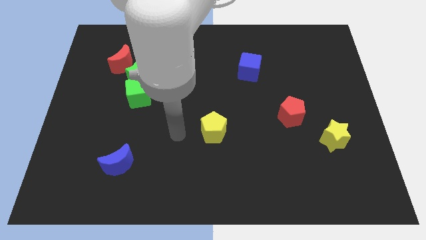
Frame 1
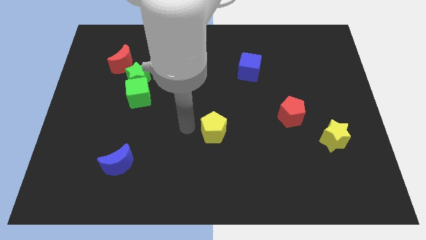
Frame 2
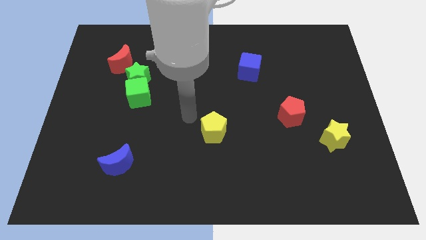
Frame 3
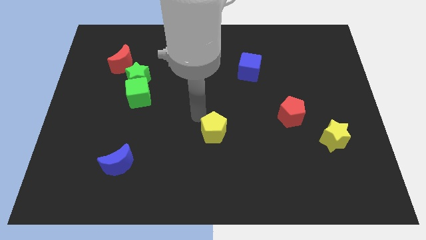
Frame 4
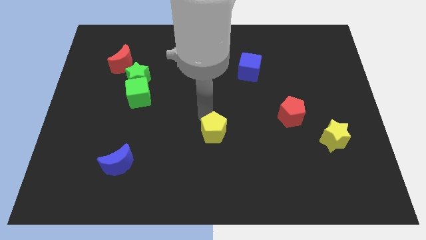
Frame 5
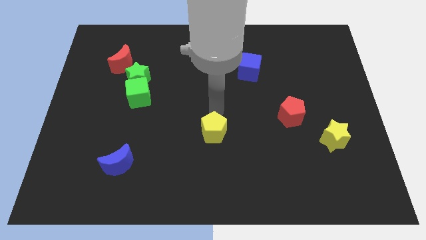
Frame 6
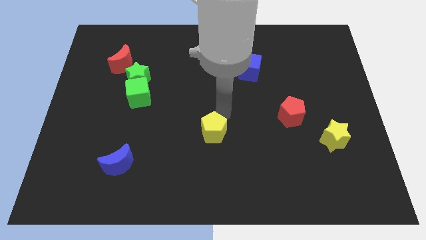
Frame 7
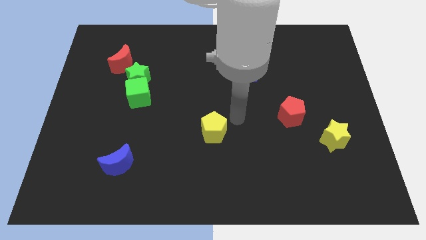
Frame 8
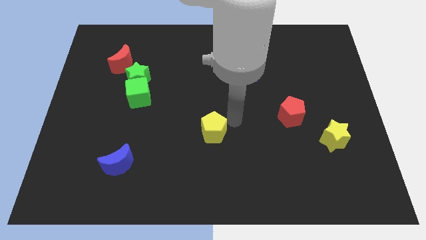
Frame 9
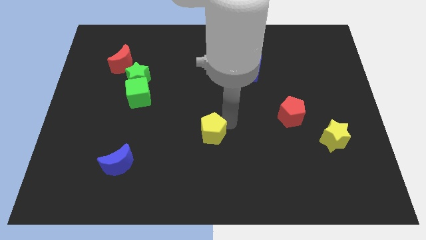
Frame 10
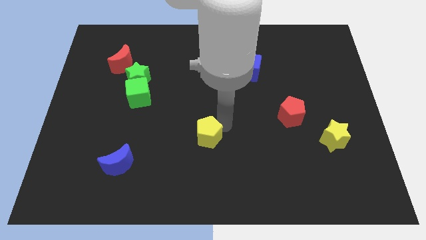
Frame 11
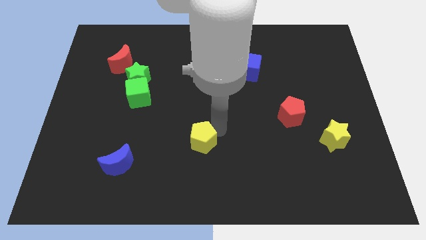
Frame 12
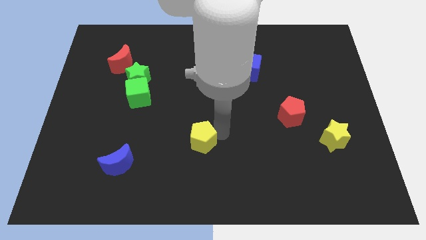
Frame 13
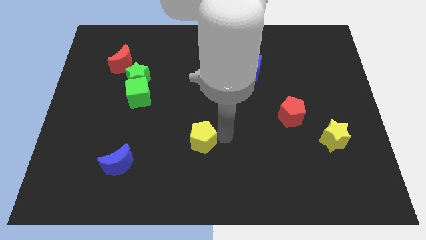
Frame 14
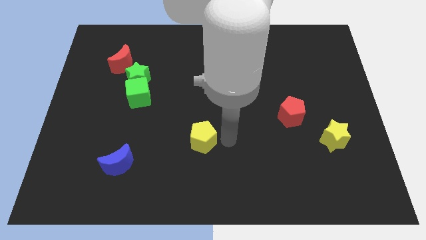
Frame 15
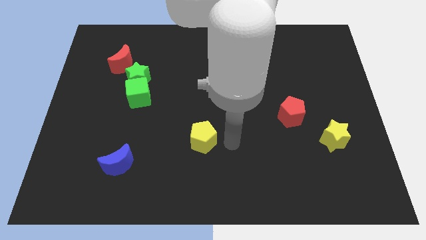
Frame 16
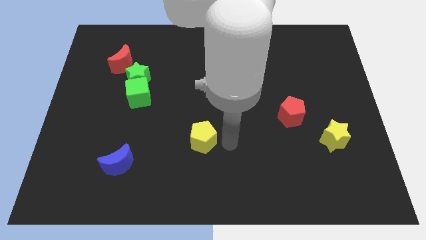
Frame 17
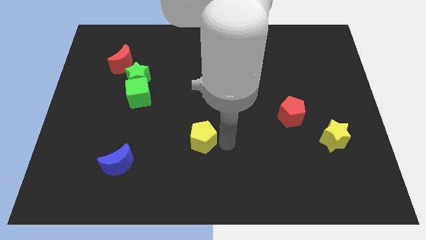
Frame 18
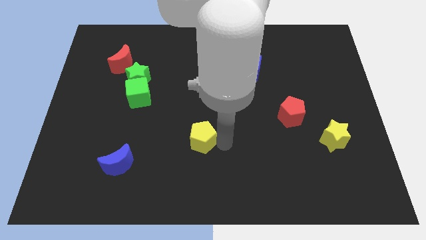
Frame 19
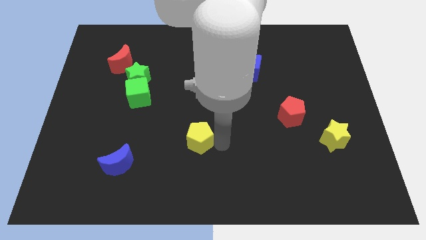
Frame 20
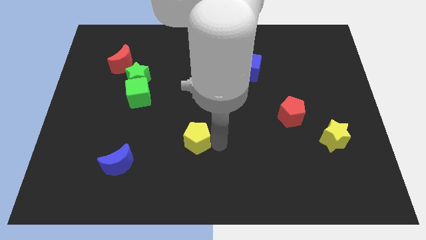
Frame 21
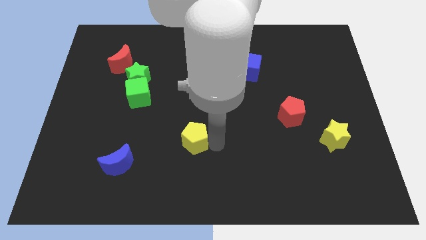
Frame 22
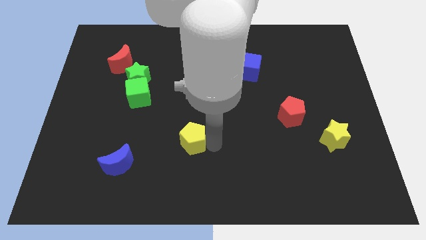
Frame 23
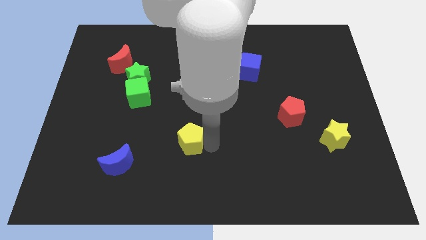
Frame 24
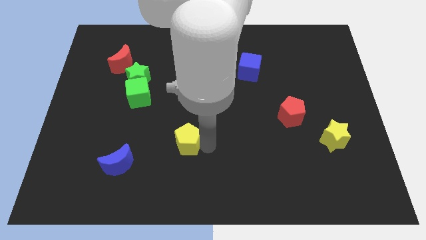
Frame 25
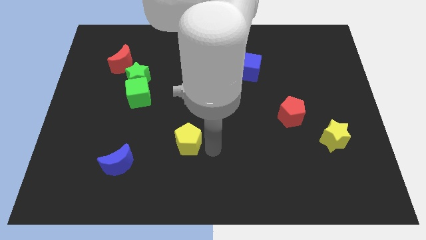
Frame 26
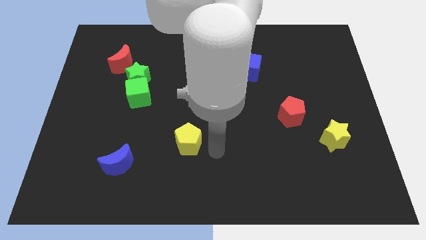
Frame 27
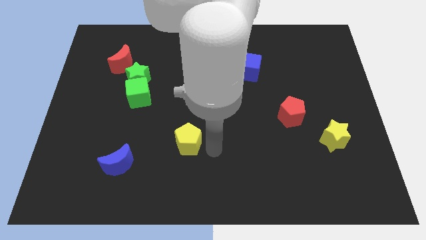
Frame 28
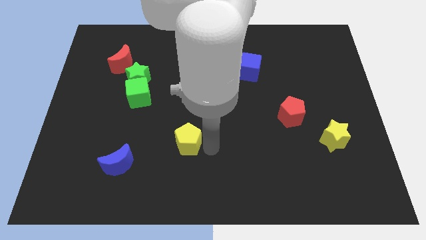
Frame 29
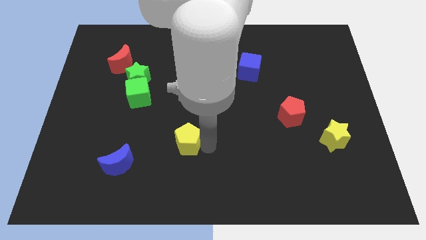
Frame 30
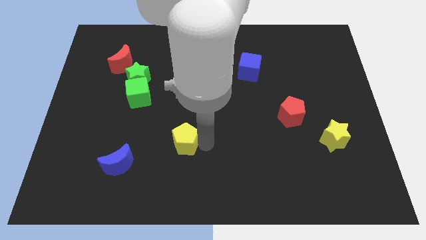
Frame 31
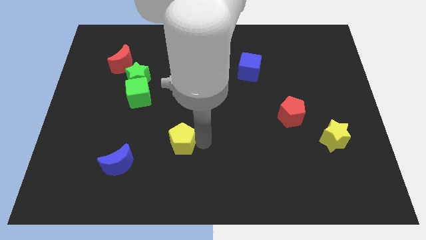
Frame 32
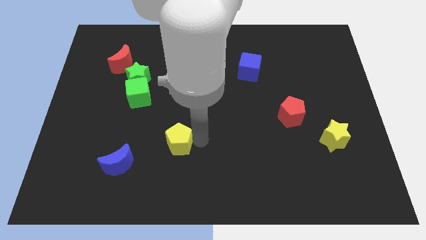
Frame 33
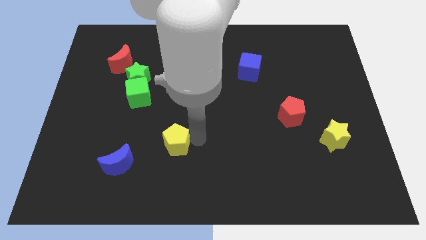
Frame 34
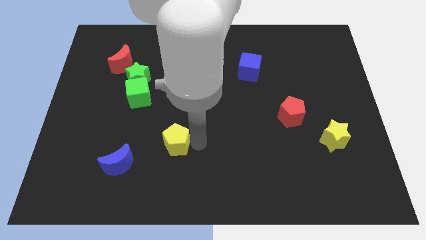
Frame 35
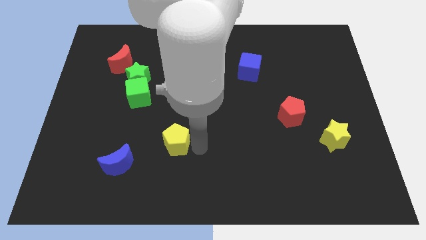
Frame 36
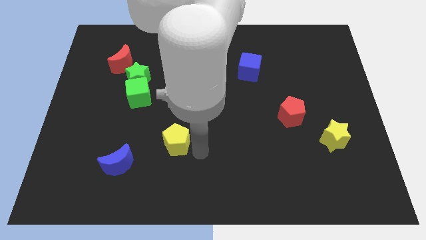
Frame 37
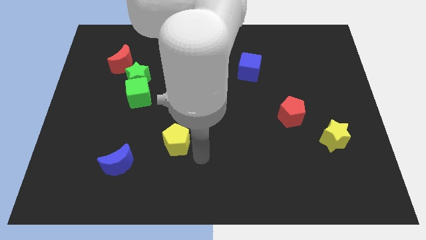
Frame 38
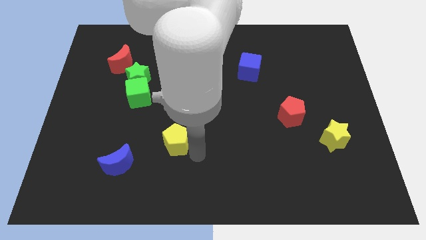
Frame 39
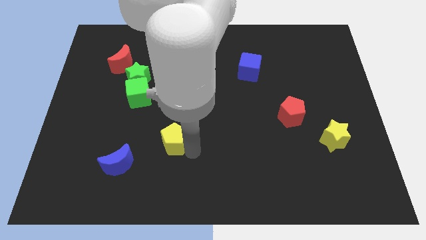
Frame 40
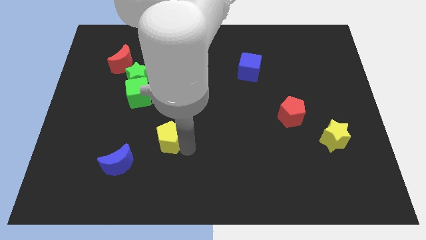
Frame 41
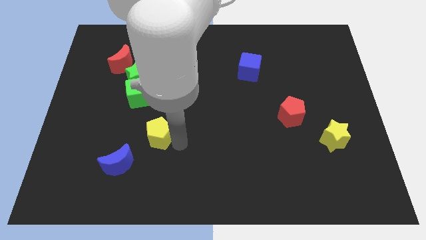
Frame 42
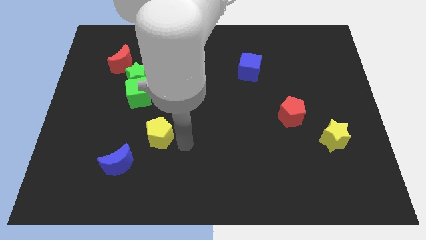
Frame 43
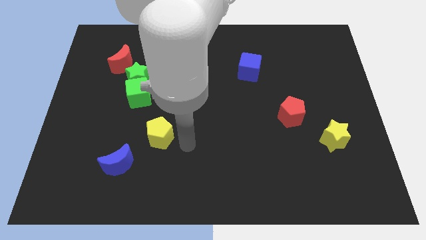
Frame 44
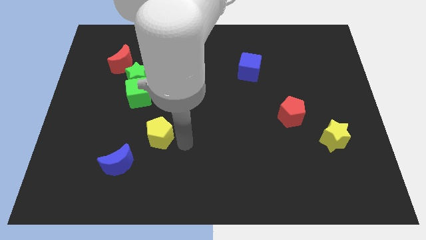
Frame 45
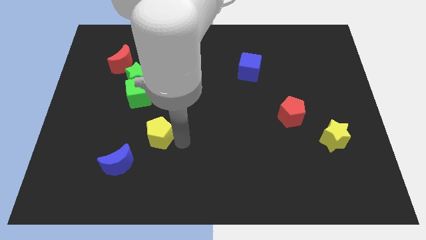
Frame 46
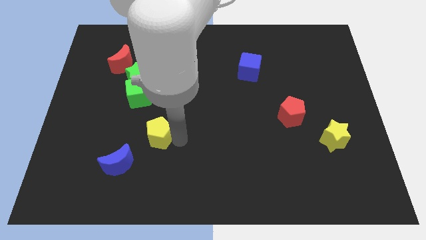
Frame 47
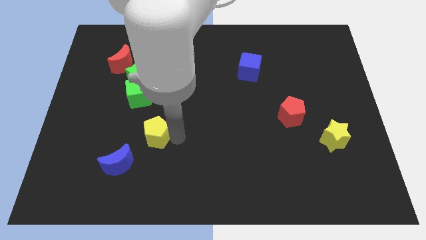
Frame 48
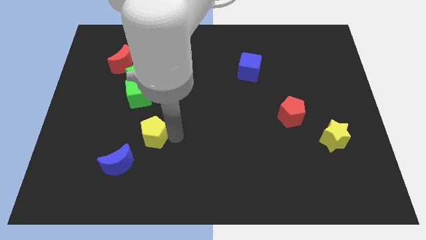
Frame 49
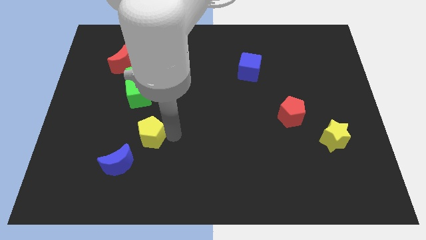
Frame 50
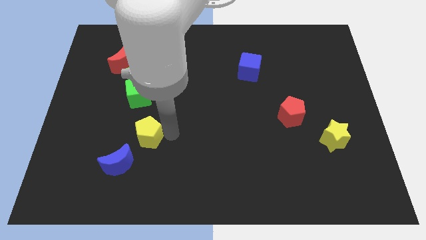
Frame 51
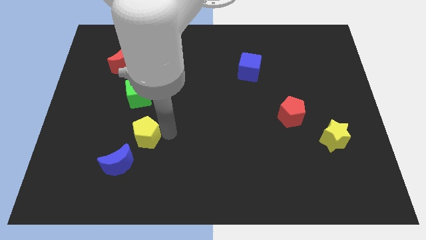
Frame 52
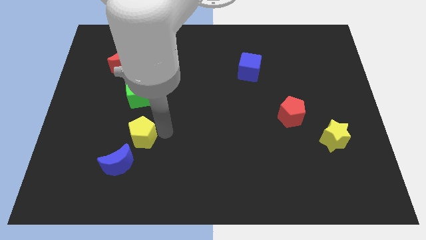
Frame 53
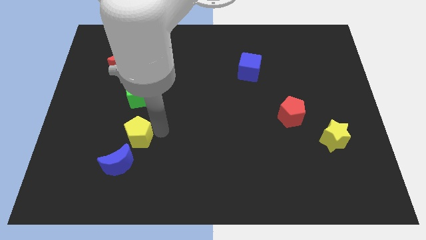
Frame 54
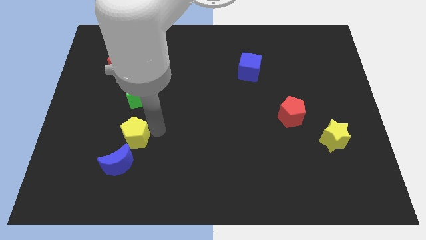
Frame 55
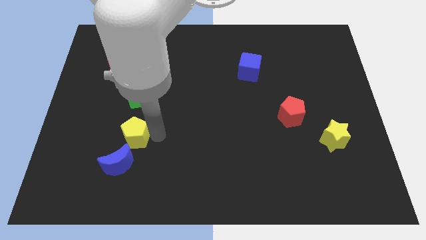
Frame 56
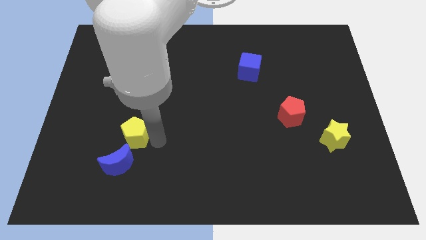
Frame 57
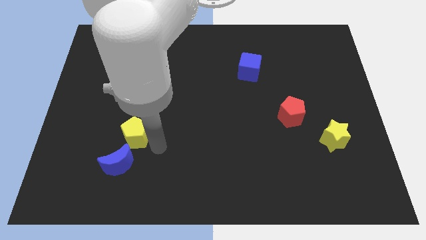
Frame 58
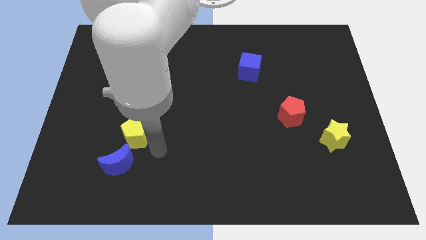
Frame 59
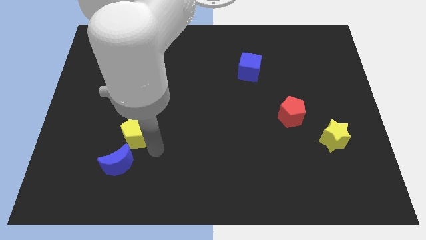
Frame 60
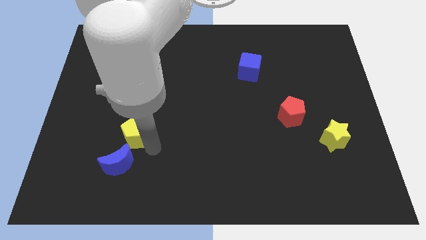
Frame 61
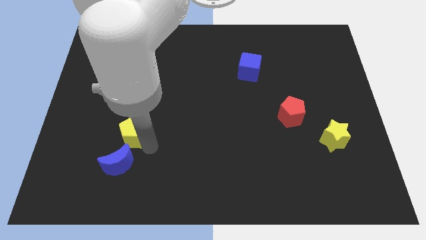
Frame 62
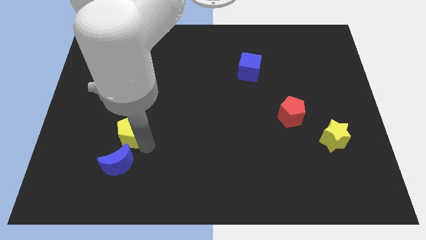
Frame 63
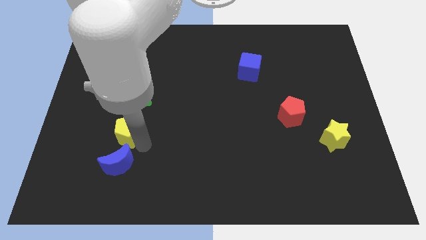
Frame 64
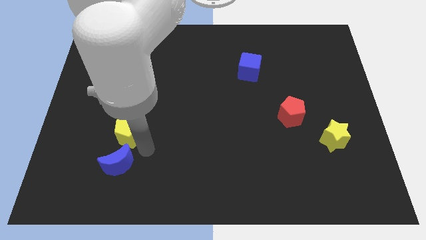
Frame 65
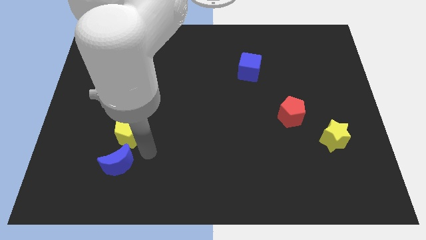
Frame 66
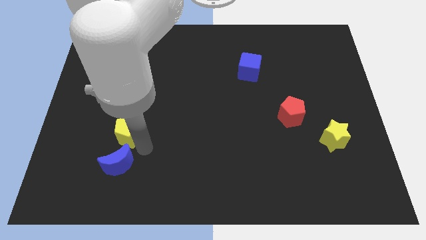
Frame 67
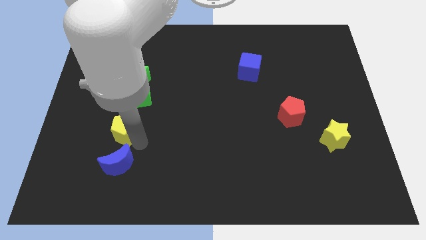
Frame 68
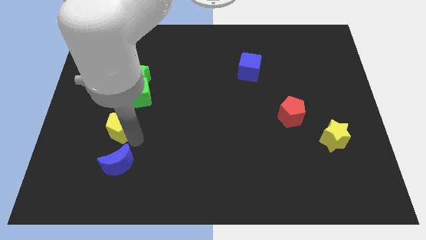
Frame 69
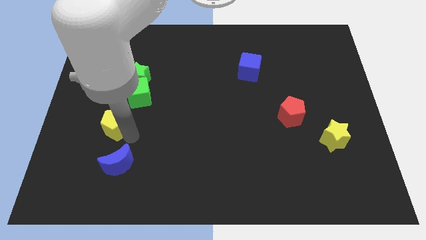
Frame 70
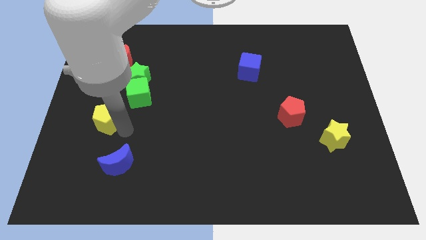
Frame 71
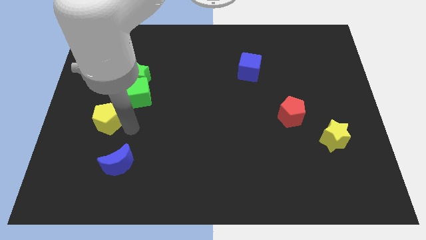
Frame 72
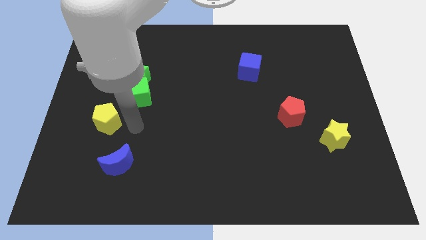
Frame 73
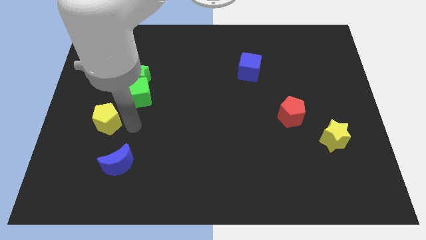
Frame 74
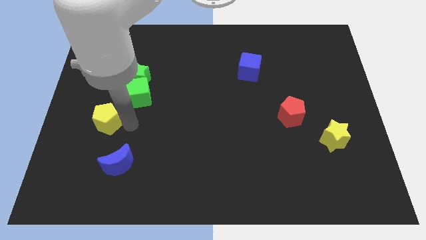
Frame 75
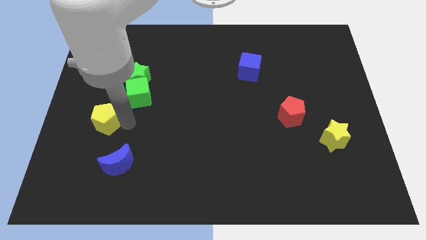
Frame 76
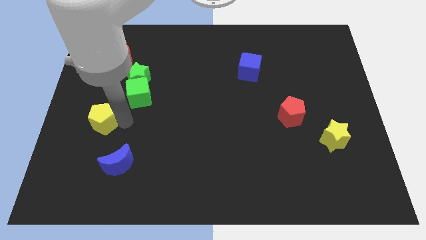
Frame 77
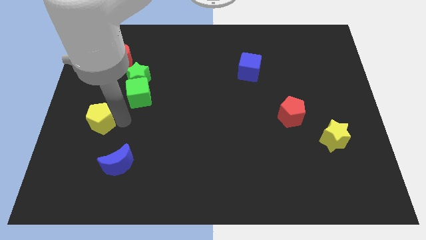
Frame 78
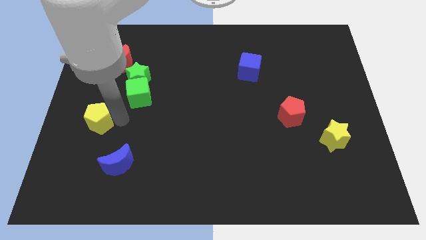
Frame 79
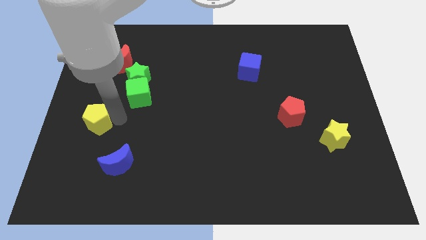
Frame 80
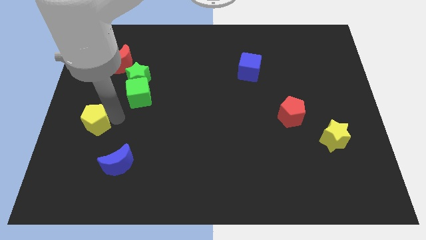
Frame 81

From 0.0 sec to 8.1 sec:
slide the yellow pentagon to the left side
